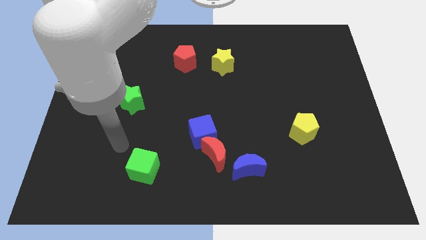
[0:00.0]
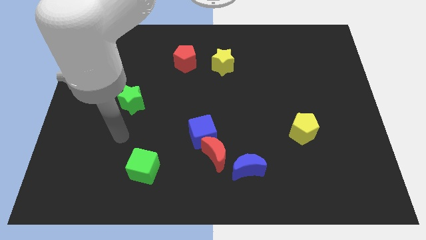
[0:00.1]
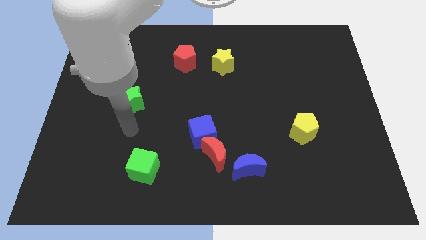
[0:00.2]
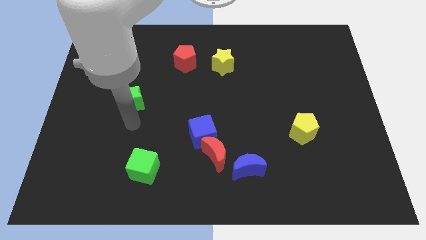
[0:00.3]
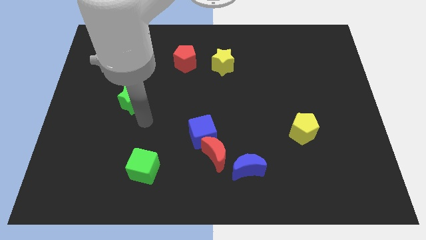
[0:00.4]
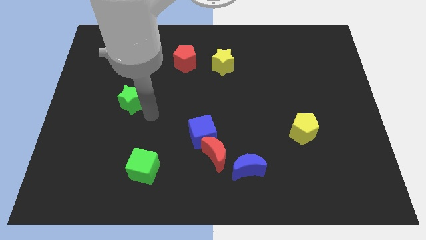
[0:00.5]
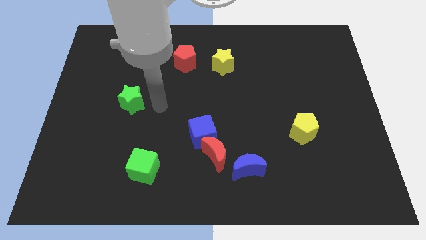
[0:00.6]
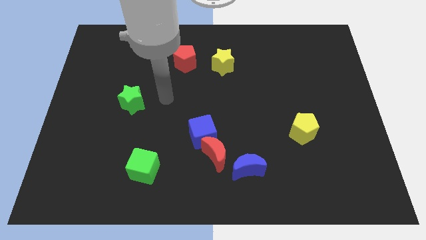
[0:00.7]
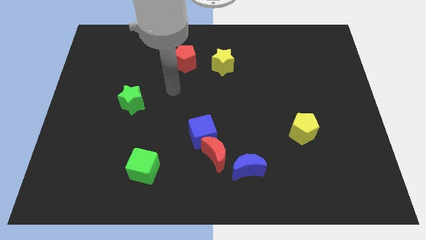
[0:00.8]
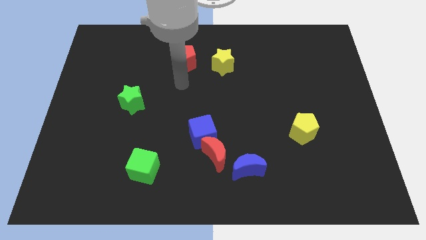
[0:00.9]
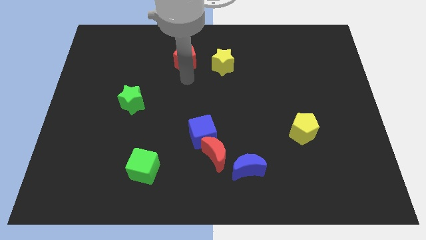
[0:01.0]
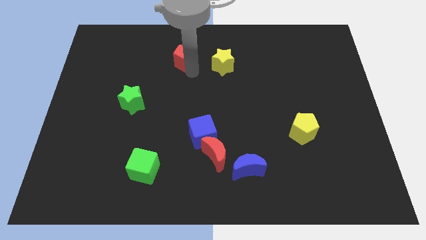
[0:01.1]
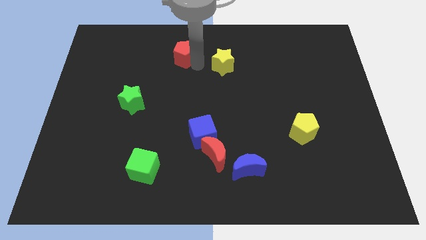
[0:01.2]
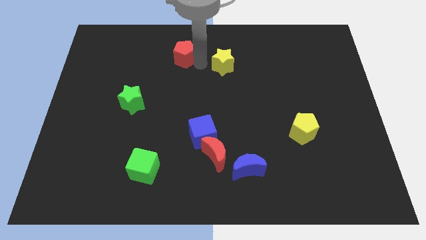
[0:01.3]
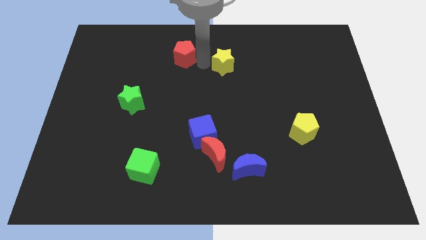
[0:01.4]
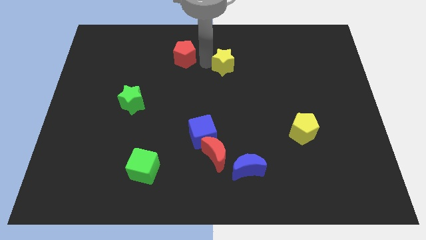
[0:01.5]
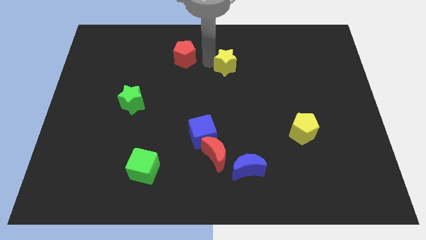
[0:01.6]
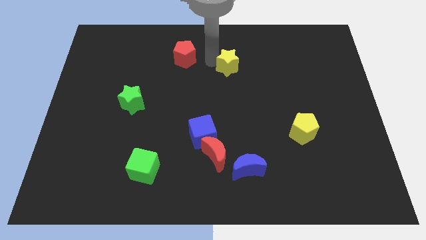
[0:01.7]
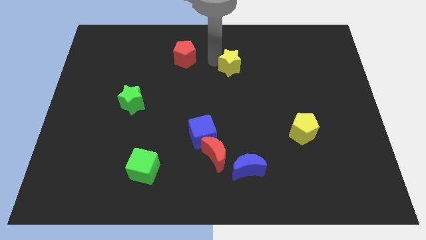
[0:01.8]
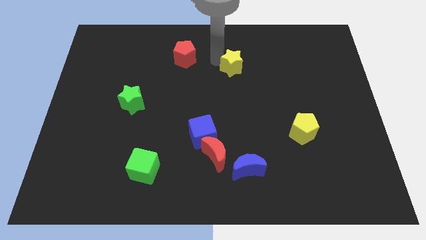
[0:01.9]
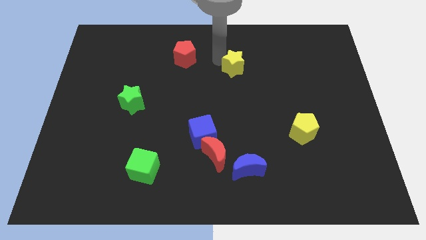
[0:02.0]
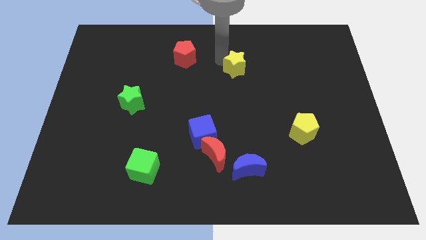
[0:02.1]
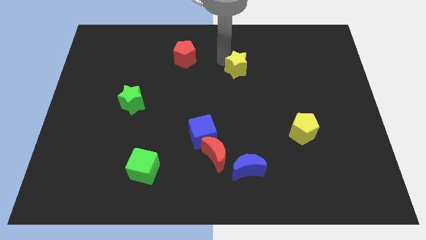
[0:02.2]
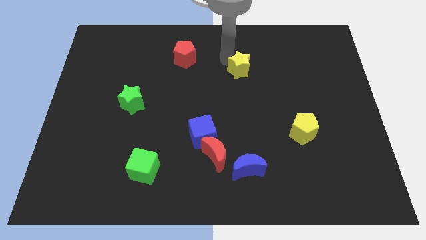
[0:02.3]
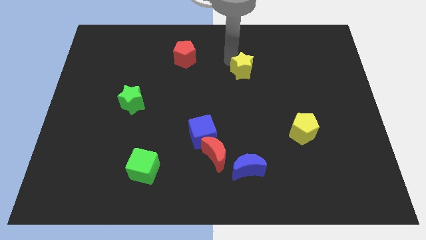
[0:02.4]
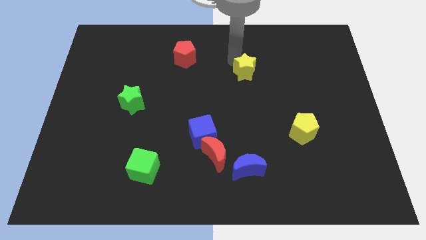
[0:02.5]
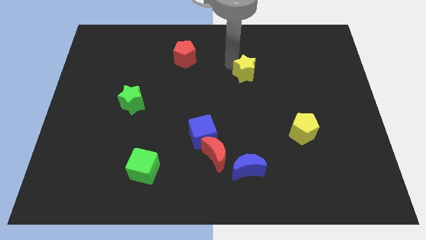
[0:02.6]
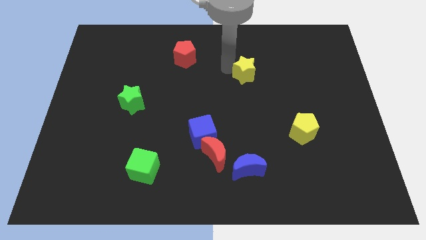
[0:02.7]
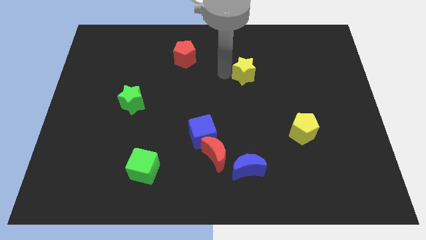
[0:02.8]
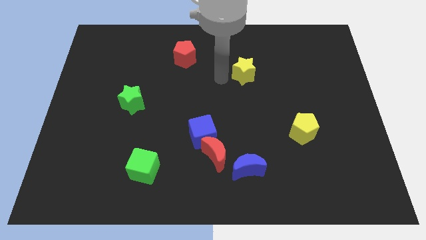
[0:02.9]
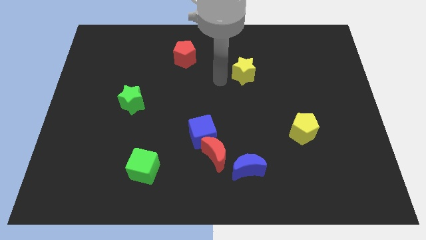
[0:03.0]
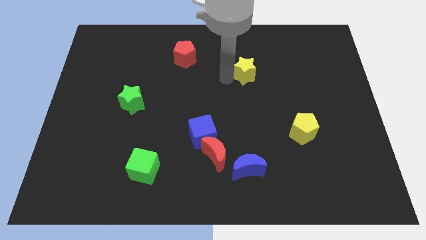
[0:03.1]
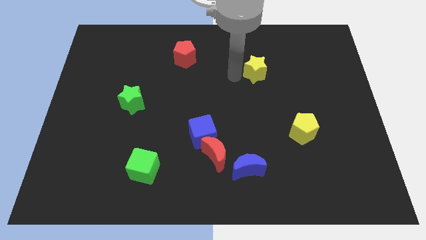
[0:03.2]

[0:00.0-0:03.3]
push the yellow star right a little bit

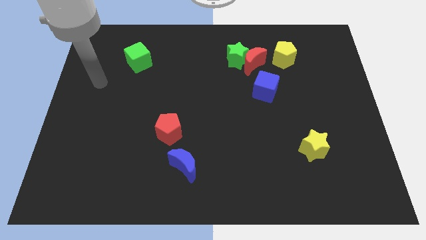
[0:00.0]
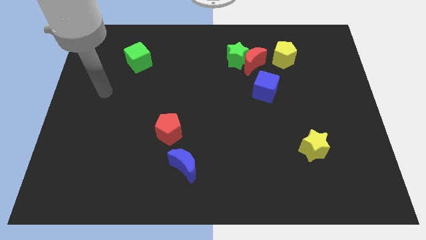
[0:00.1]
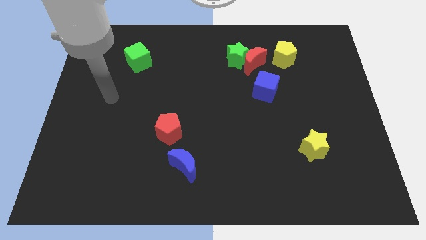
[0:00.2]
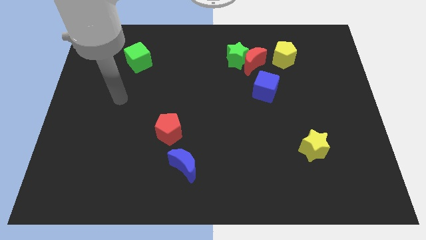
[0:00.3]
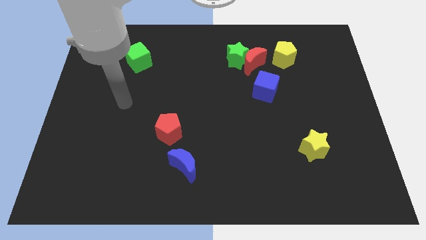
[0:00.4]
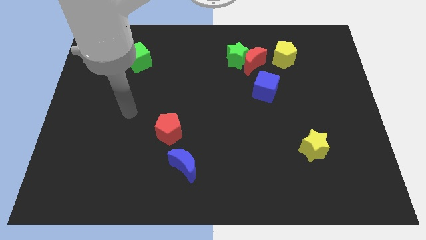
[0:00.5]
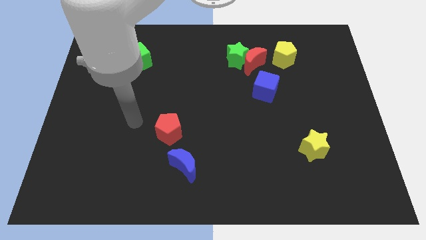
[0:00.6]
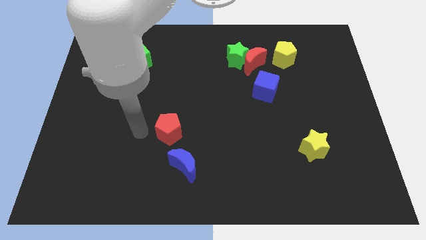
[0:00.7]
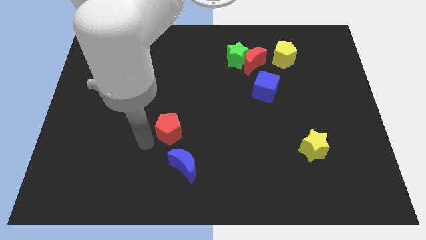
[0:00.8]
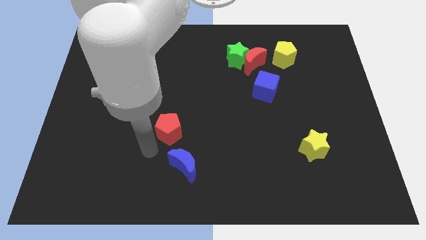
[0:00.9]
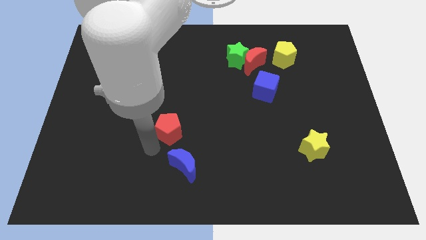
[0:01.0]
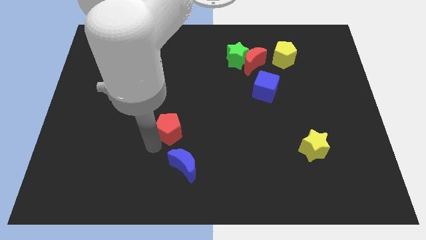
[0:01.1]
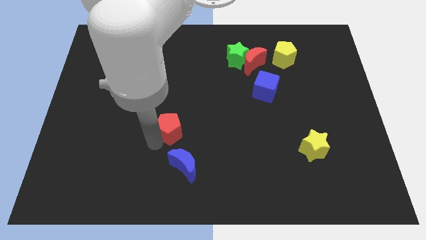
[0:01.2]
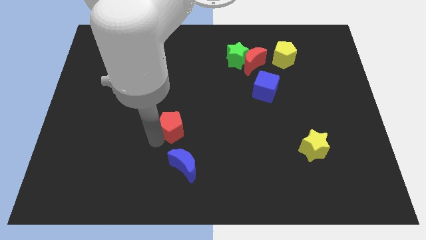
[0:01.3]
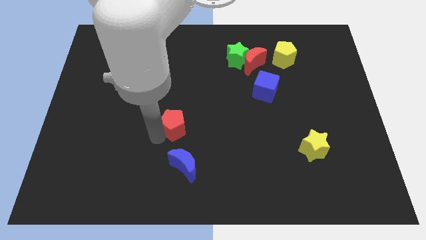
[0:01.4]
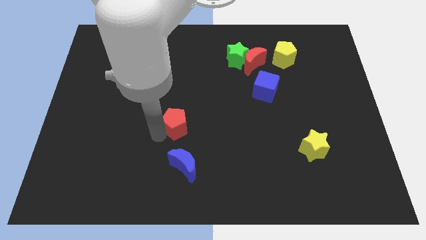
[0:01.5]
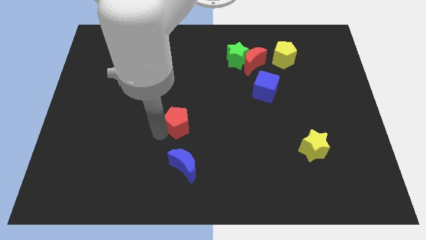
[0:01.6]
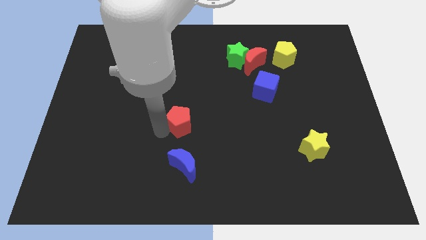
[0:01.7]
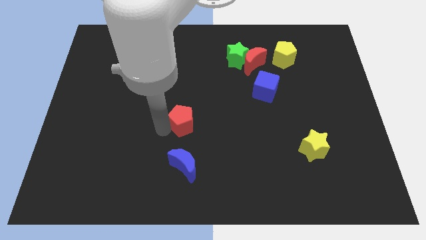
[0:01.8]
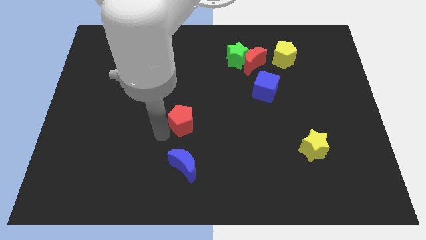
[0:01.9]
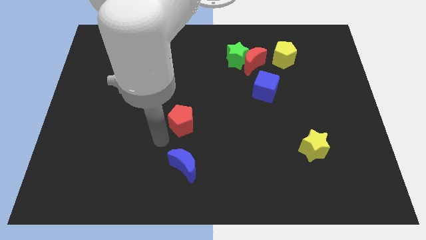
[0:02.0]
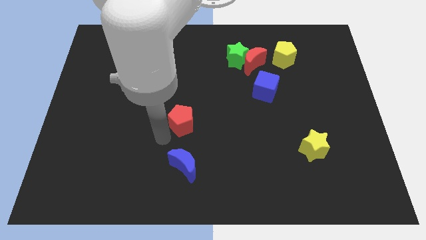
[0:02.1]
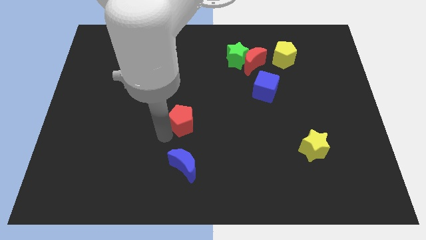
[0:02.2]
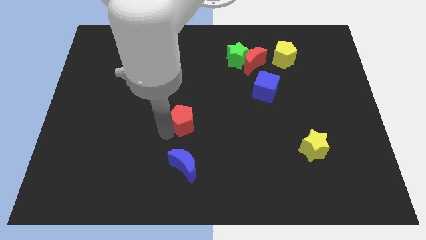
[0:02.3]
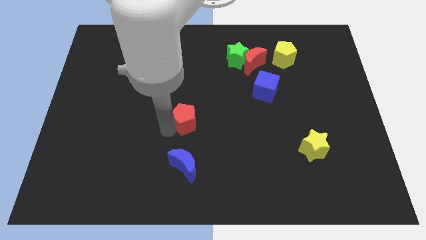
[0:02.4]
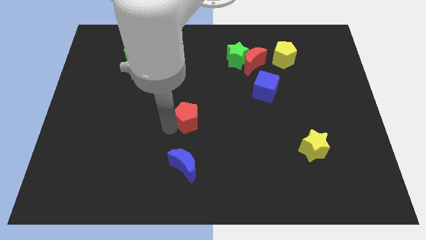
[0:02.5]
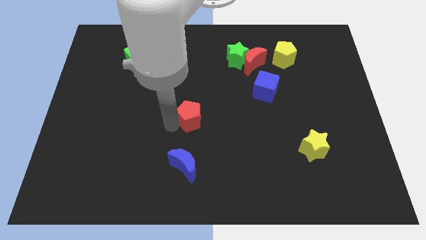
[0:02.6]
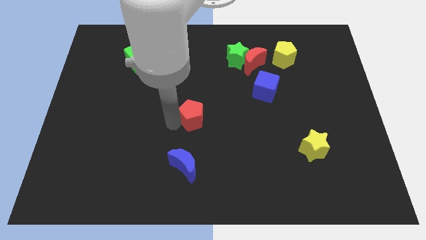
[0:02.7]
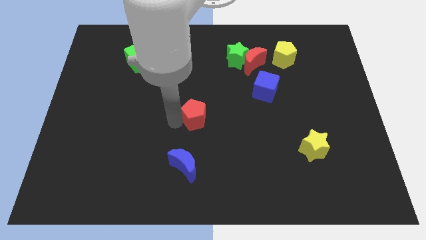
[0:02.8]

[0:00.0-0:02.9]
move the red pentagon upwards and right diagonally a little

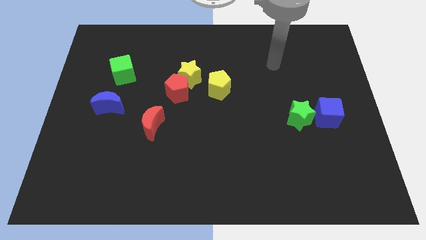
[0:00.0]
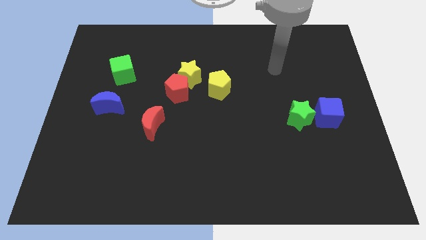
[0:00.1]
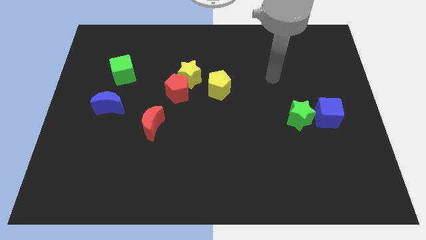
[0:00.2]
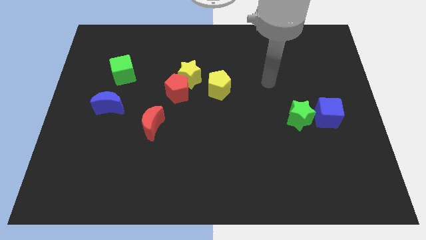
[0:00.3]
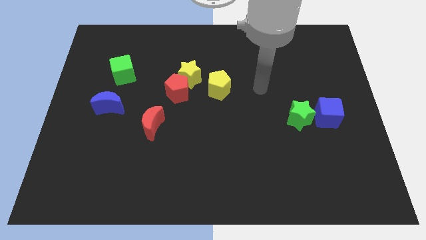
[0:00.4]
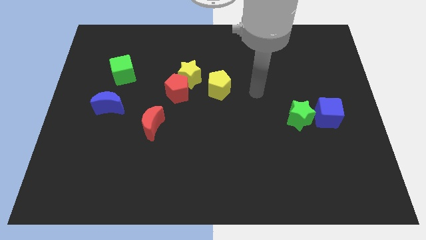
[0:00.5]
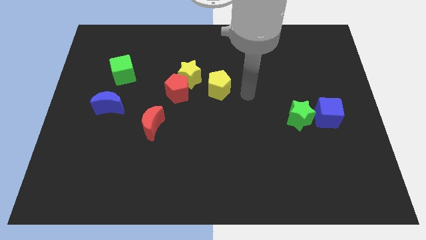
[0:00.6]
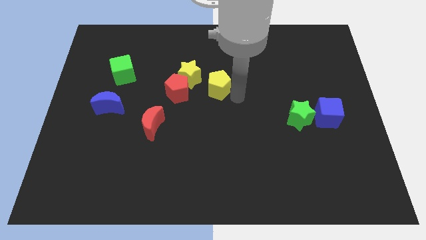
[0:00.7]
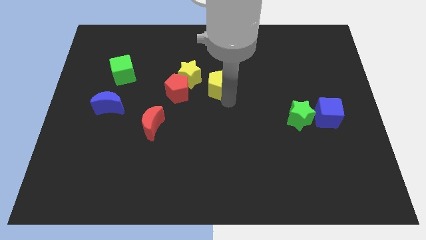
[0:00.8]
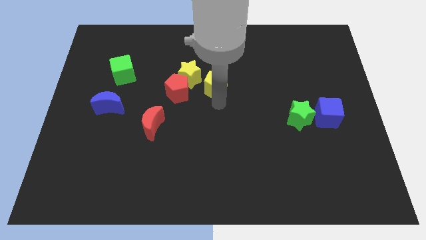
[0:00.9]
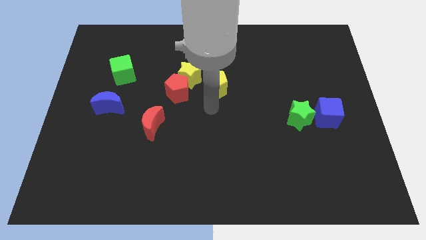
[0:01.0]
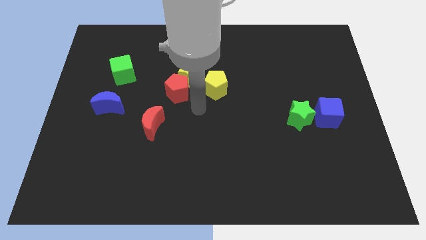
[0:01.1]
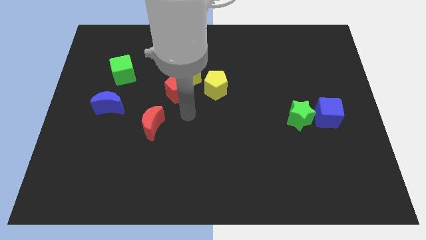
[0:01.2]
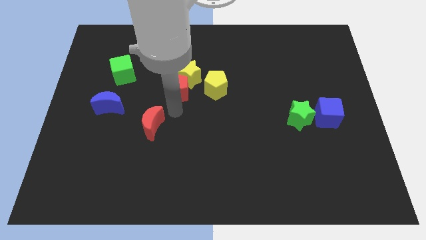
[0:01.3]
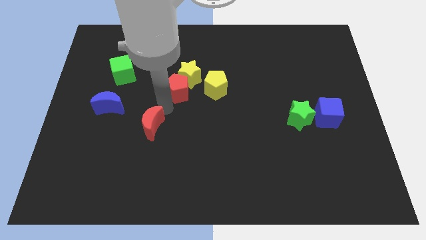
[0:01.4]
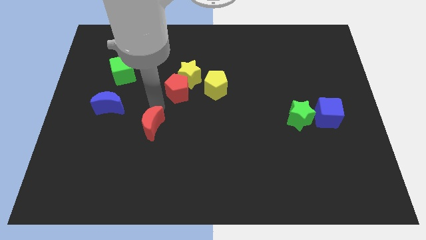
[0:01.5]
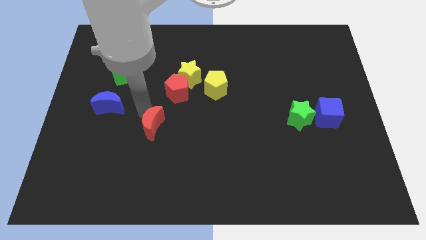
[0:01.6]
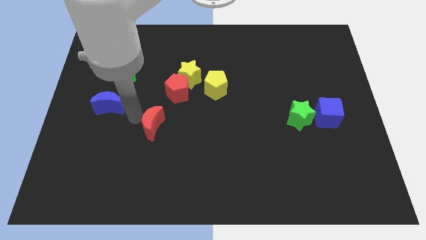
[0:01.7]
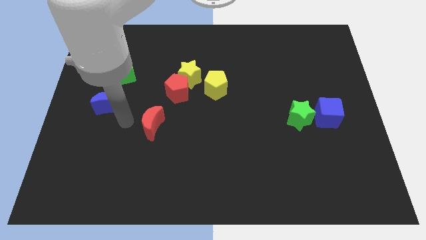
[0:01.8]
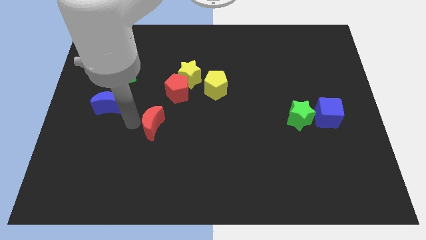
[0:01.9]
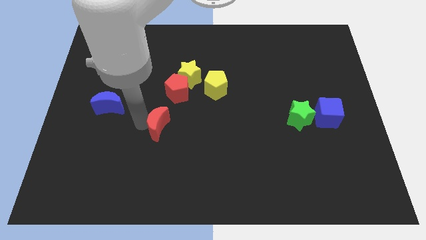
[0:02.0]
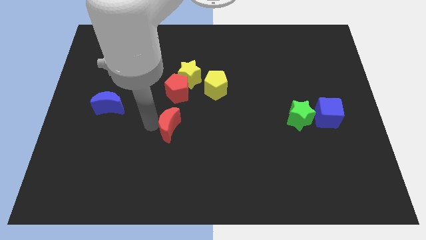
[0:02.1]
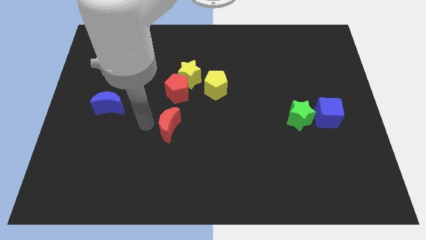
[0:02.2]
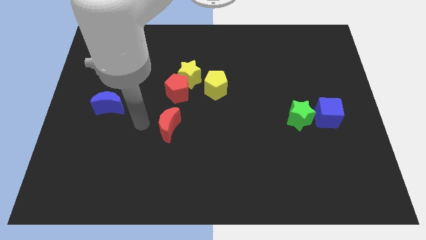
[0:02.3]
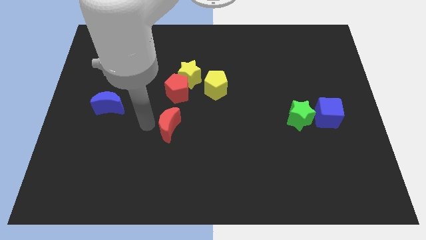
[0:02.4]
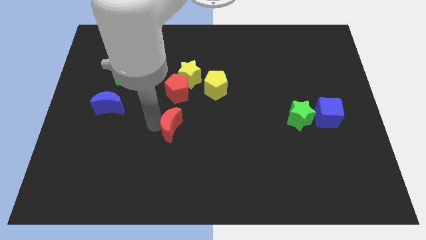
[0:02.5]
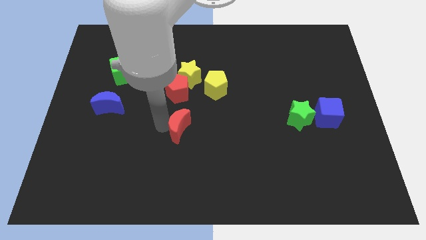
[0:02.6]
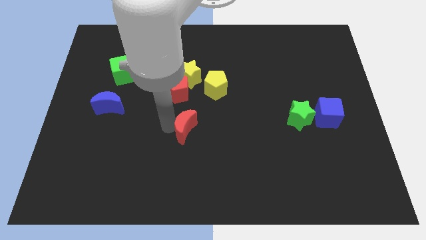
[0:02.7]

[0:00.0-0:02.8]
slightly move the red moon right
